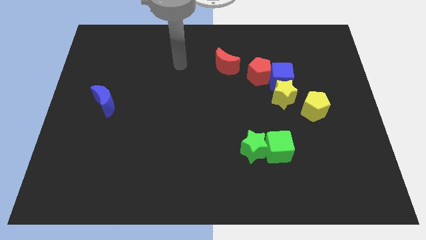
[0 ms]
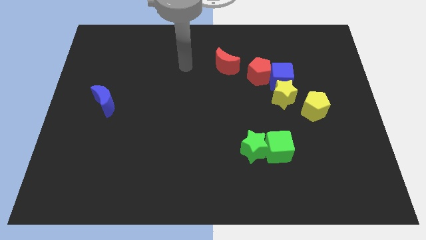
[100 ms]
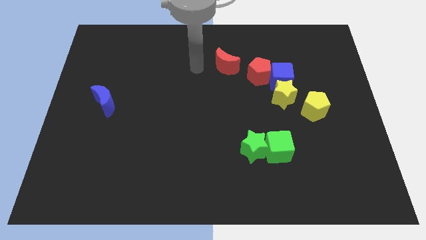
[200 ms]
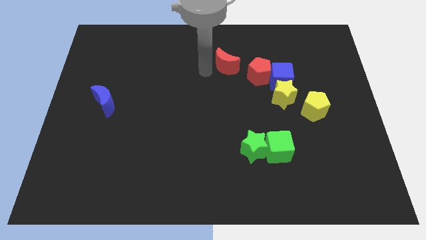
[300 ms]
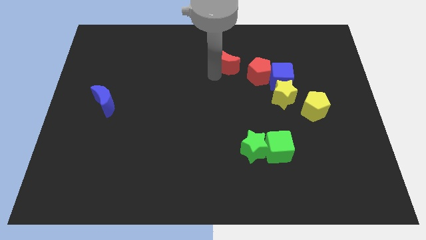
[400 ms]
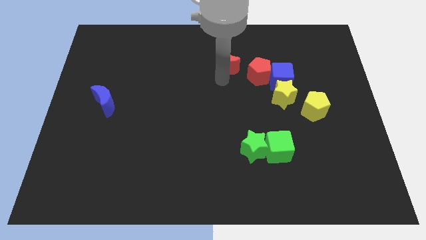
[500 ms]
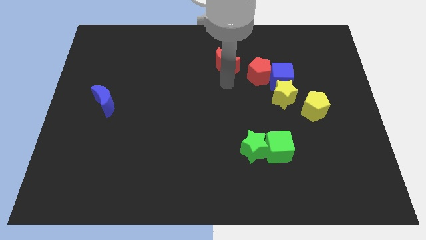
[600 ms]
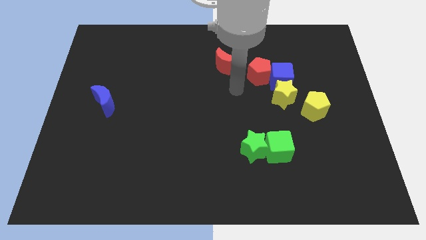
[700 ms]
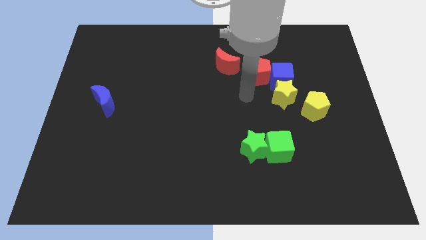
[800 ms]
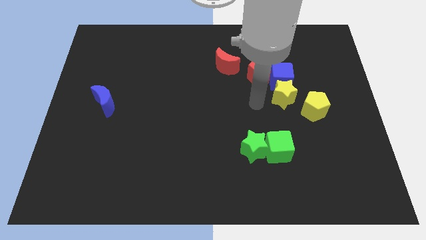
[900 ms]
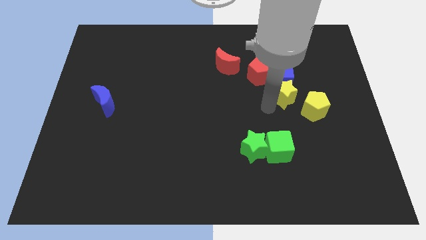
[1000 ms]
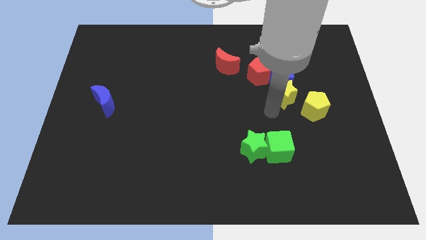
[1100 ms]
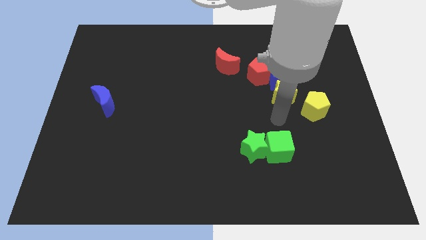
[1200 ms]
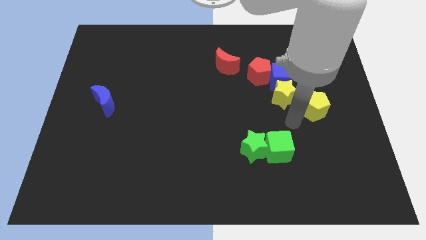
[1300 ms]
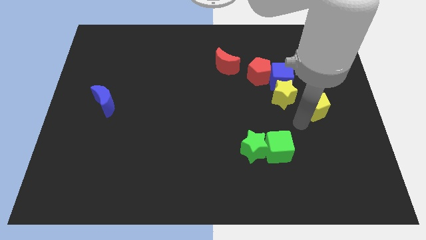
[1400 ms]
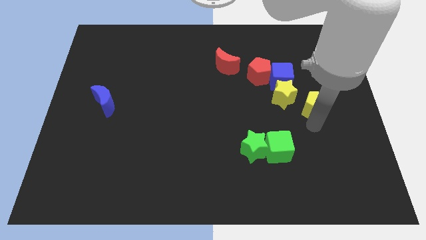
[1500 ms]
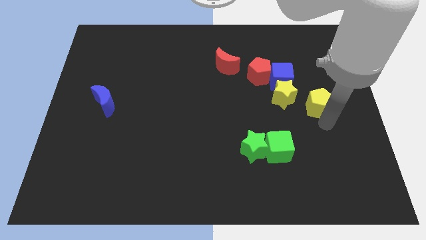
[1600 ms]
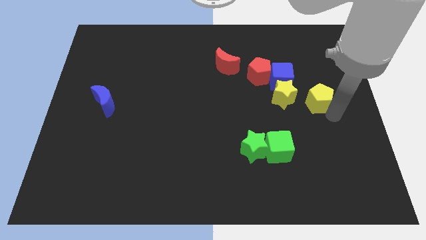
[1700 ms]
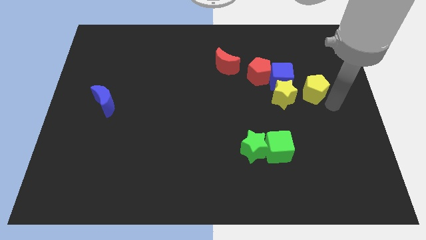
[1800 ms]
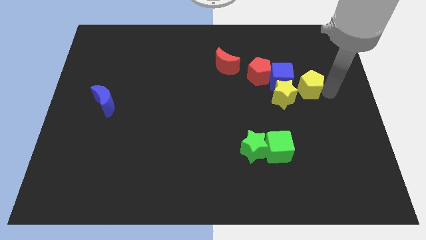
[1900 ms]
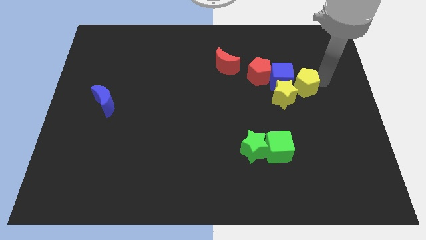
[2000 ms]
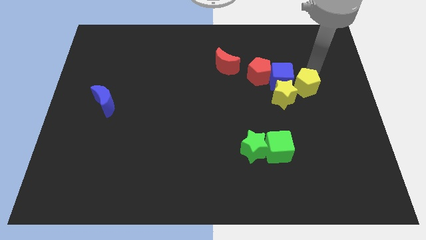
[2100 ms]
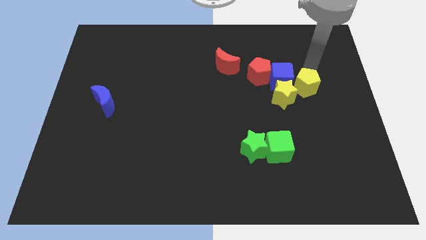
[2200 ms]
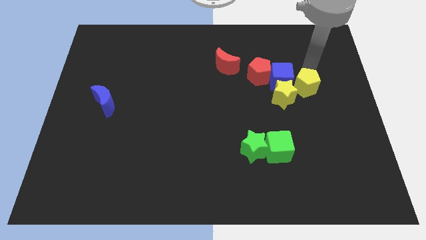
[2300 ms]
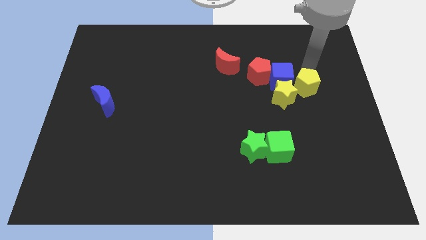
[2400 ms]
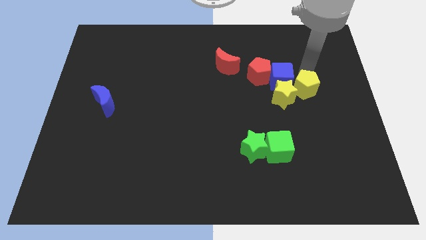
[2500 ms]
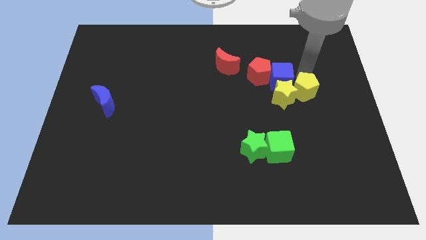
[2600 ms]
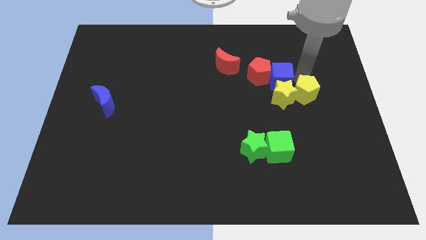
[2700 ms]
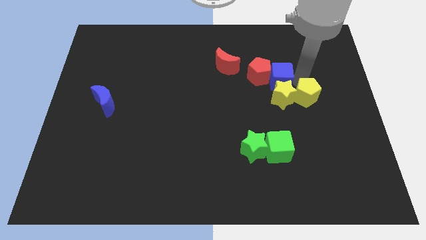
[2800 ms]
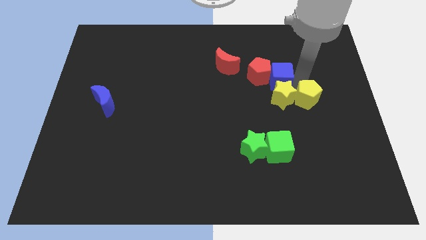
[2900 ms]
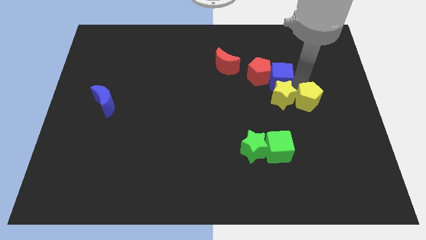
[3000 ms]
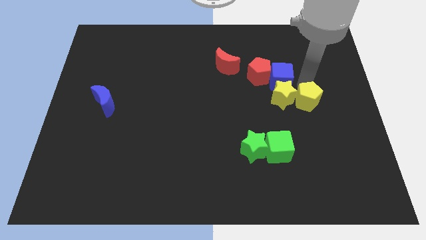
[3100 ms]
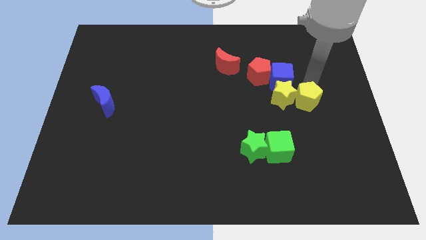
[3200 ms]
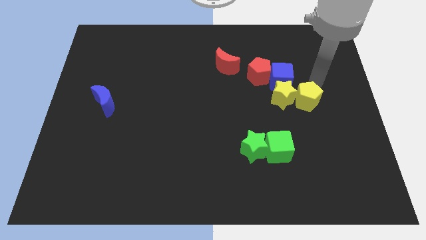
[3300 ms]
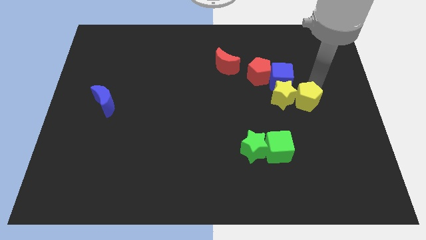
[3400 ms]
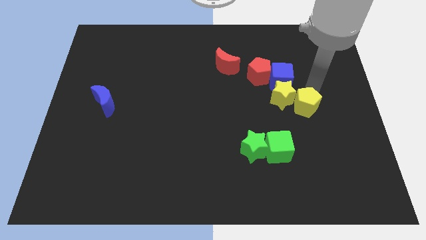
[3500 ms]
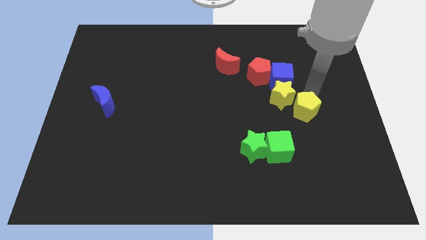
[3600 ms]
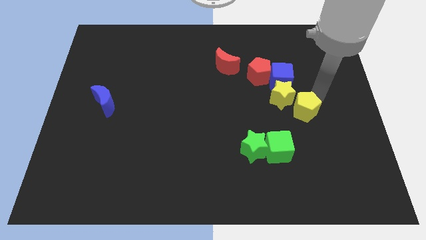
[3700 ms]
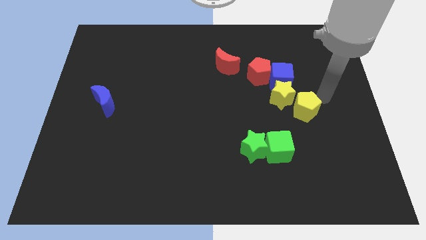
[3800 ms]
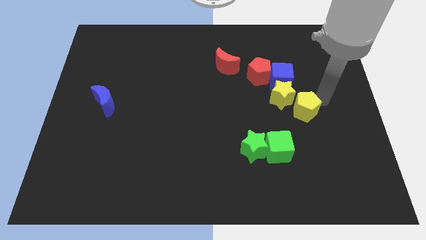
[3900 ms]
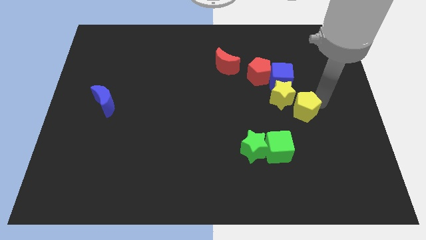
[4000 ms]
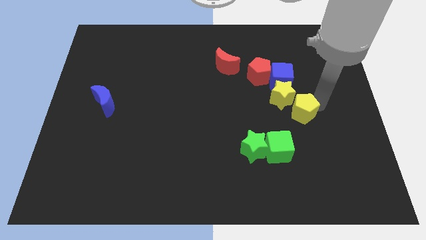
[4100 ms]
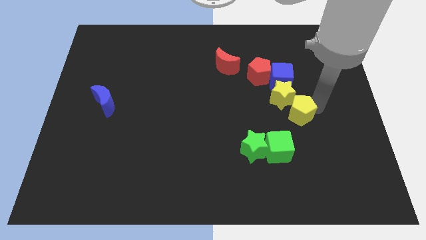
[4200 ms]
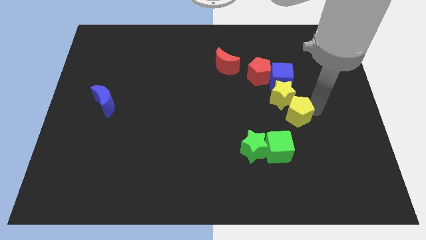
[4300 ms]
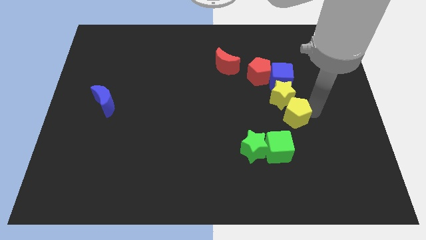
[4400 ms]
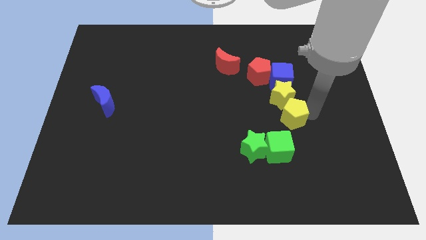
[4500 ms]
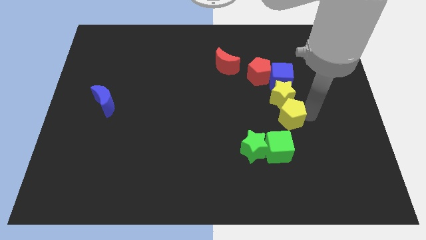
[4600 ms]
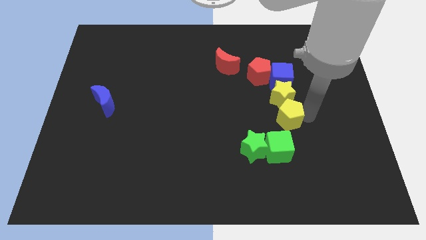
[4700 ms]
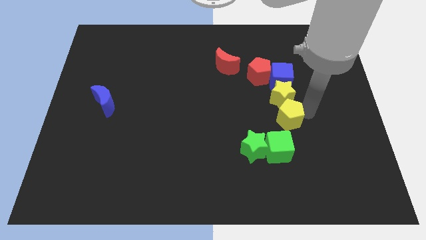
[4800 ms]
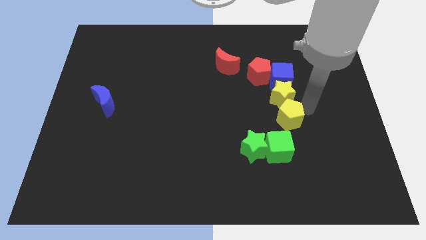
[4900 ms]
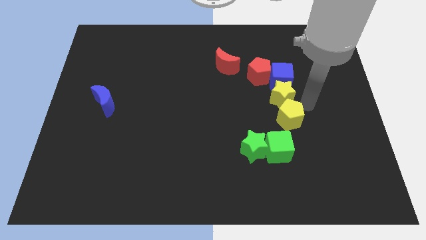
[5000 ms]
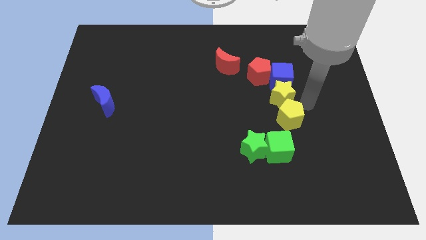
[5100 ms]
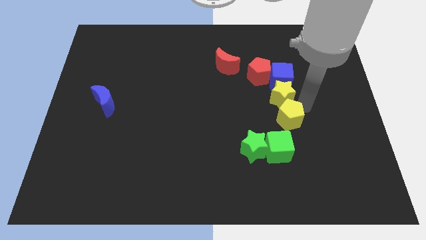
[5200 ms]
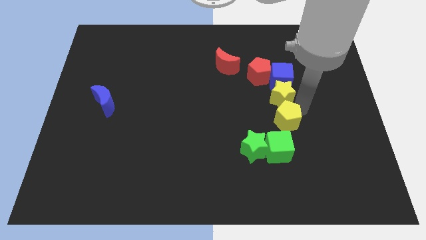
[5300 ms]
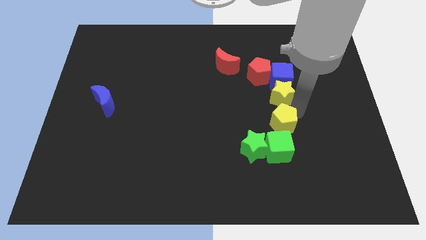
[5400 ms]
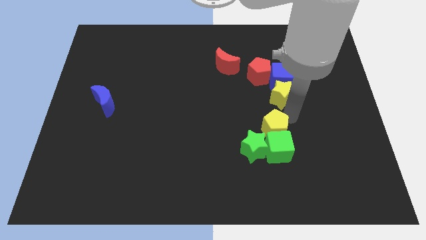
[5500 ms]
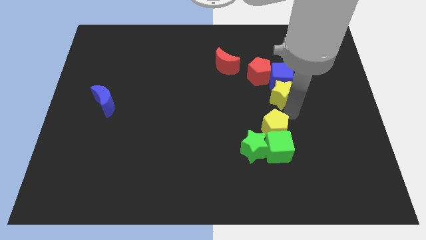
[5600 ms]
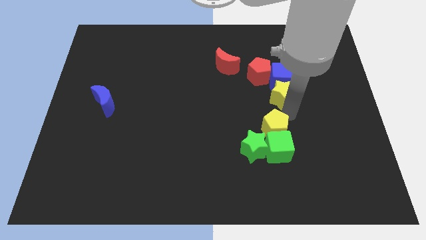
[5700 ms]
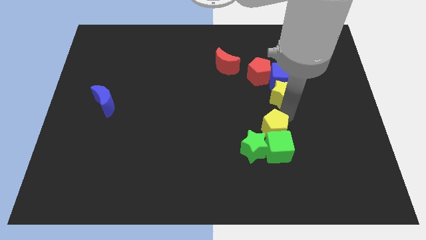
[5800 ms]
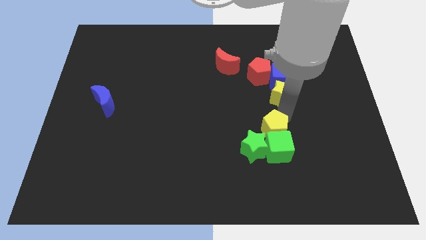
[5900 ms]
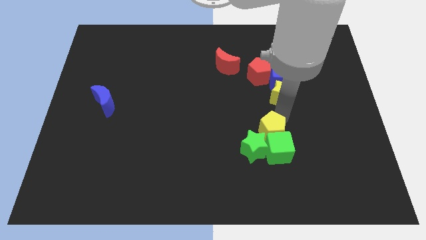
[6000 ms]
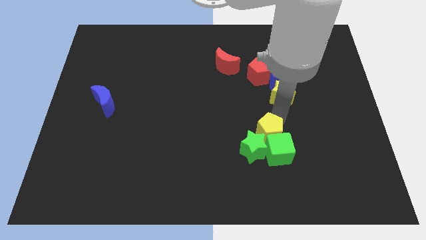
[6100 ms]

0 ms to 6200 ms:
move the yellow pentagon to the green star
